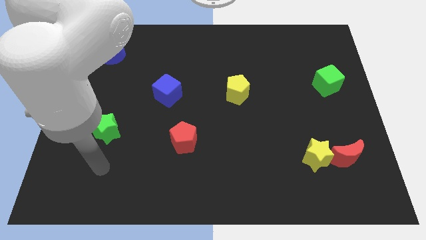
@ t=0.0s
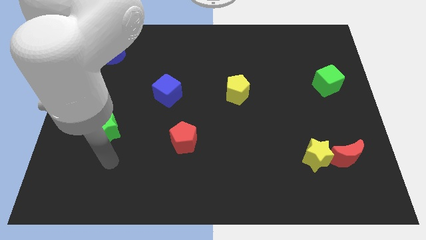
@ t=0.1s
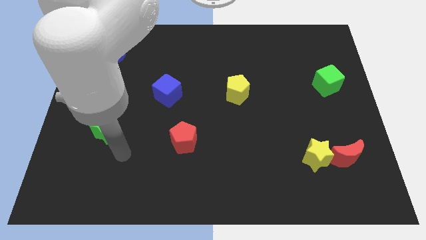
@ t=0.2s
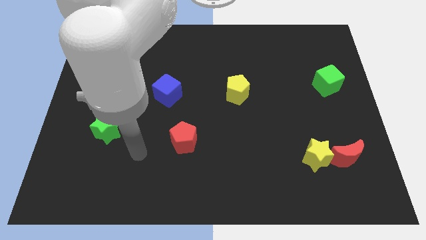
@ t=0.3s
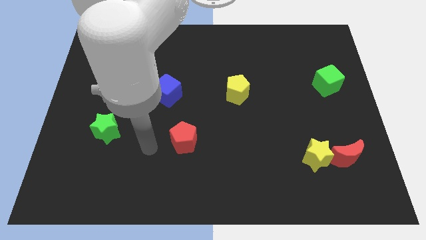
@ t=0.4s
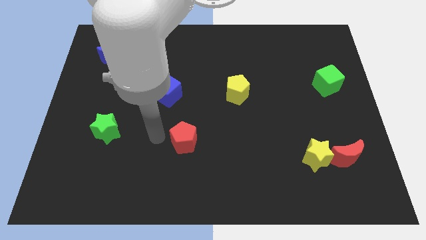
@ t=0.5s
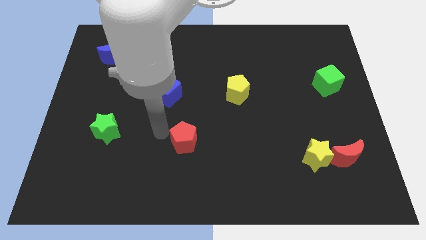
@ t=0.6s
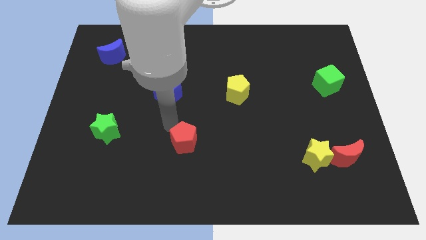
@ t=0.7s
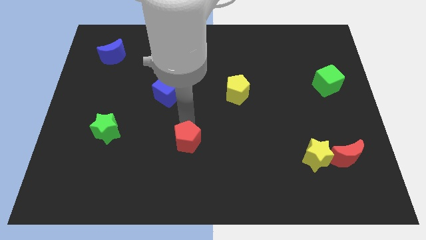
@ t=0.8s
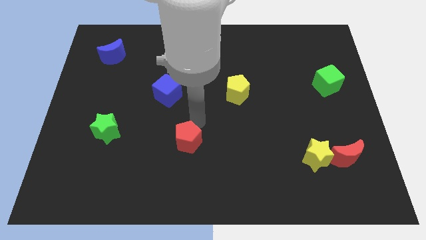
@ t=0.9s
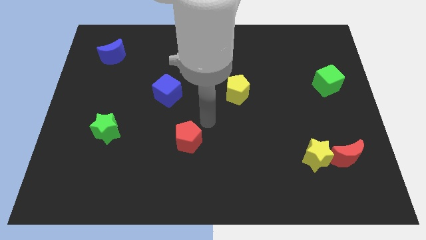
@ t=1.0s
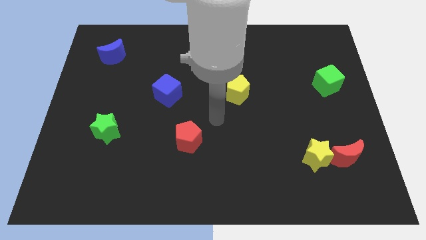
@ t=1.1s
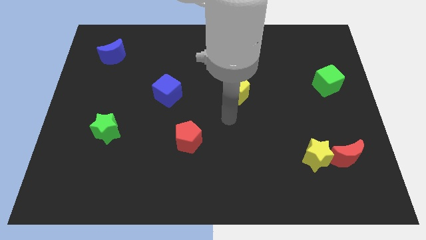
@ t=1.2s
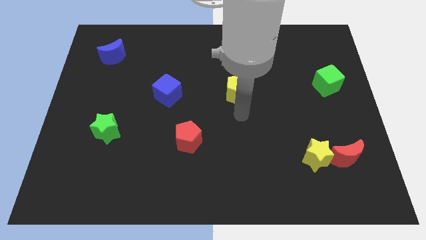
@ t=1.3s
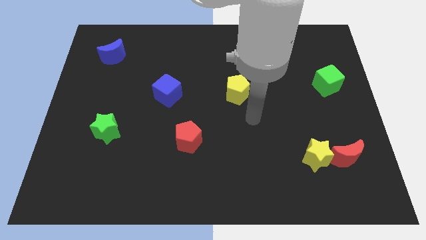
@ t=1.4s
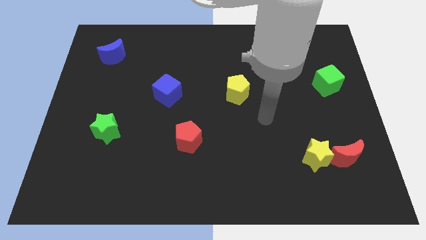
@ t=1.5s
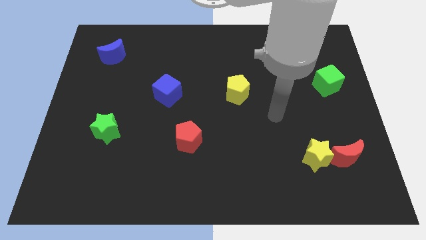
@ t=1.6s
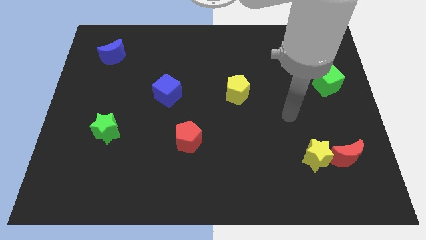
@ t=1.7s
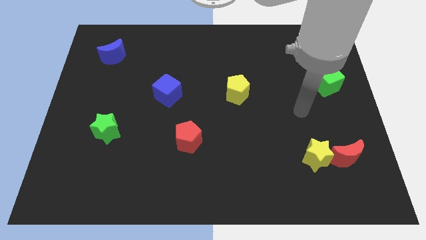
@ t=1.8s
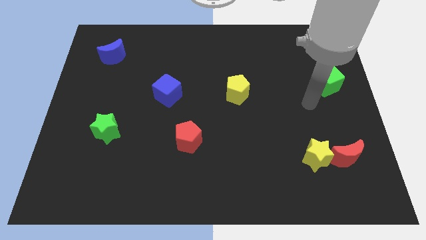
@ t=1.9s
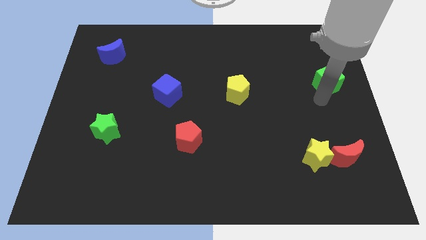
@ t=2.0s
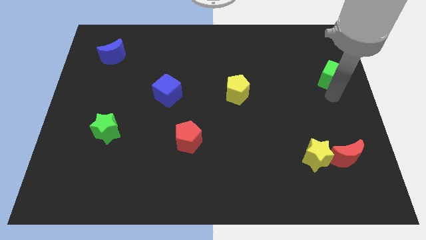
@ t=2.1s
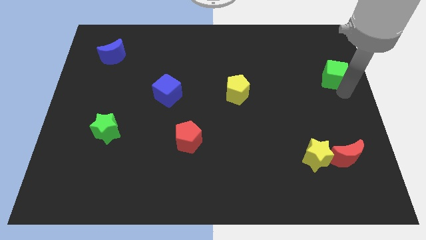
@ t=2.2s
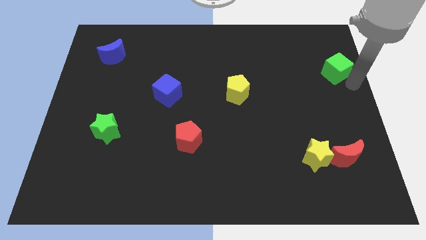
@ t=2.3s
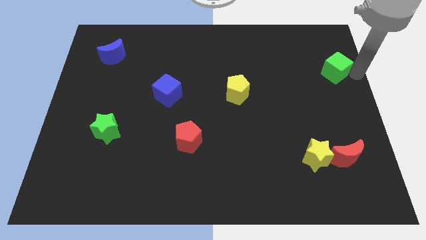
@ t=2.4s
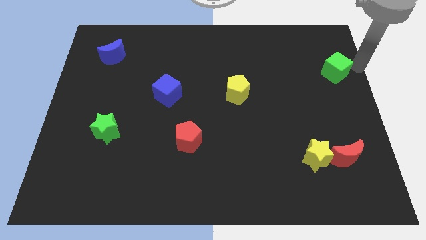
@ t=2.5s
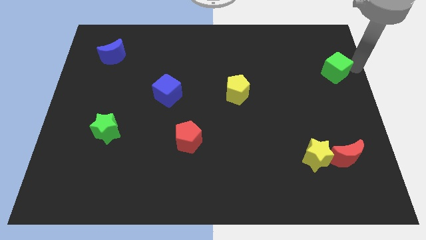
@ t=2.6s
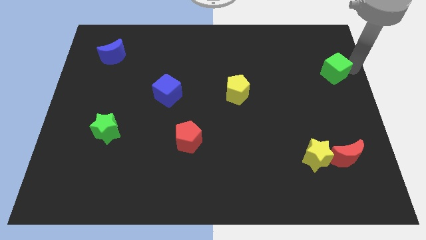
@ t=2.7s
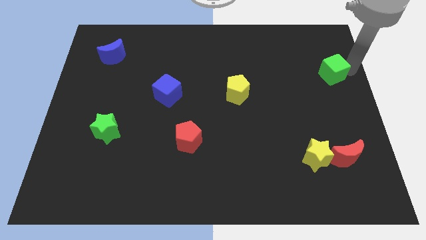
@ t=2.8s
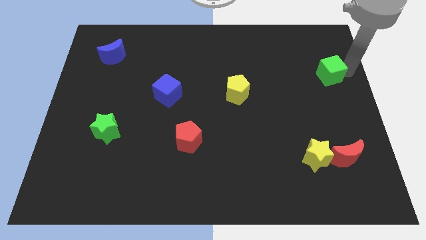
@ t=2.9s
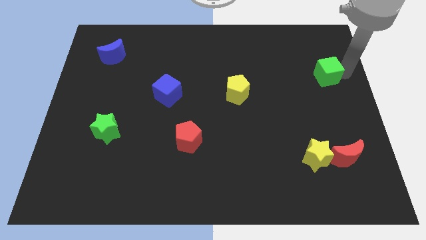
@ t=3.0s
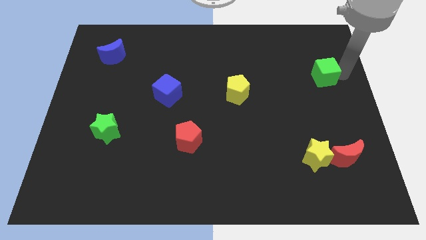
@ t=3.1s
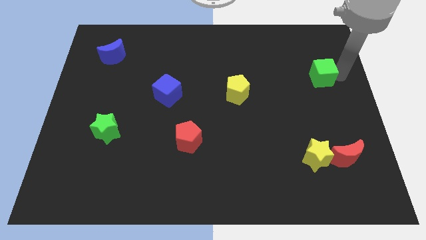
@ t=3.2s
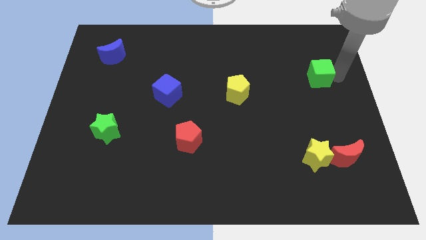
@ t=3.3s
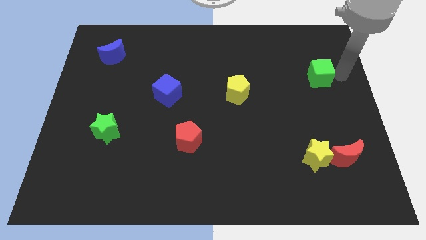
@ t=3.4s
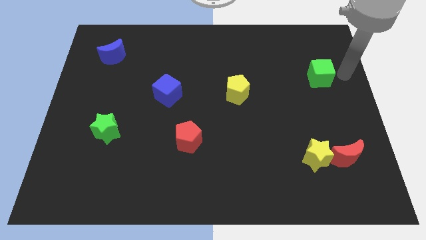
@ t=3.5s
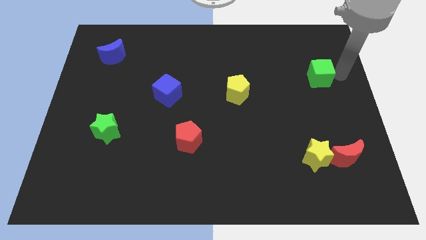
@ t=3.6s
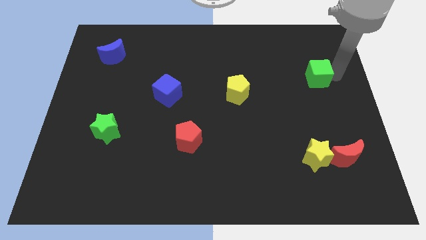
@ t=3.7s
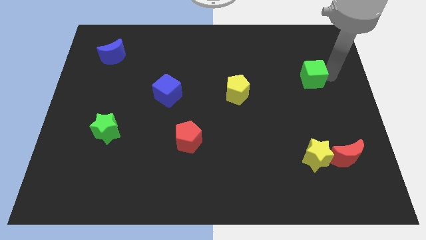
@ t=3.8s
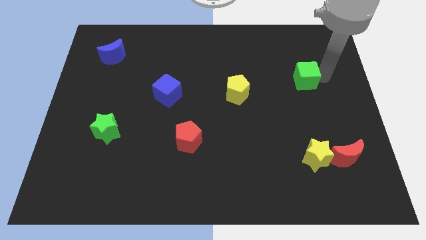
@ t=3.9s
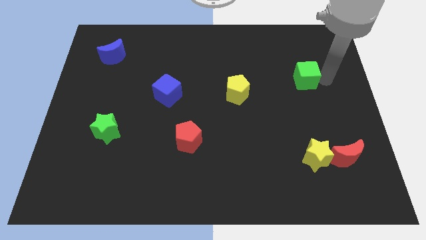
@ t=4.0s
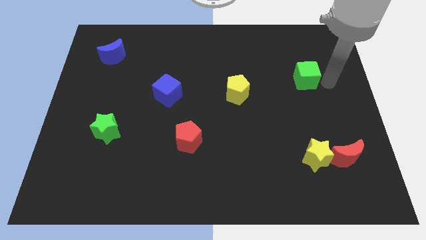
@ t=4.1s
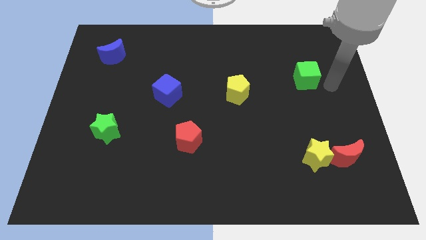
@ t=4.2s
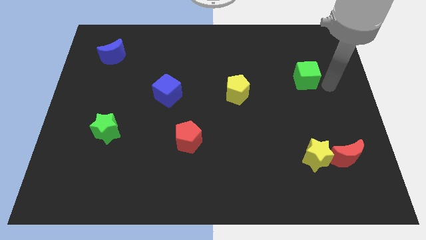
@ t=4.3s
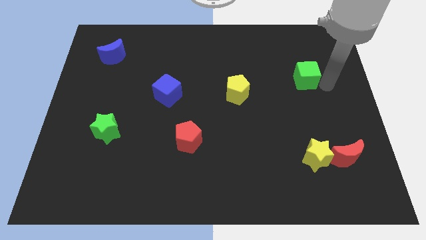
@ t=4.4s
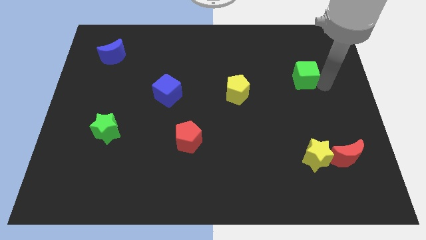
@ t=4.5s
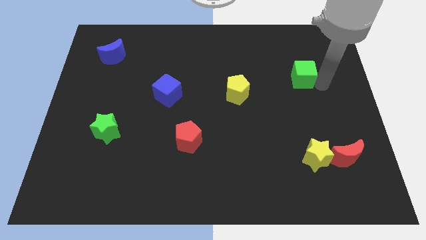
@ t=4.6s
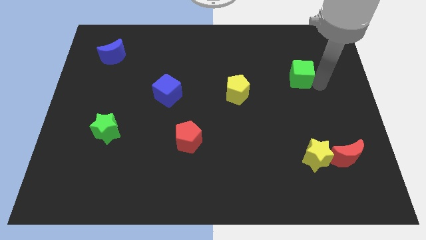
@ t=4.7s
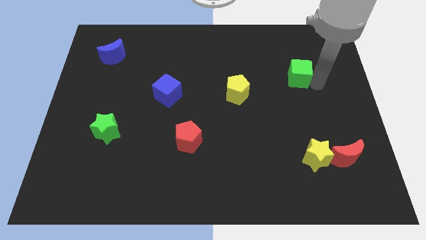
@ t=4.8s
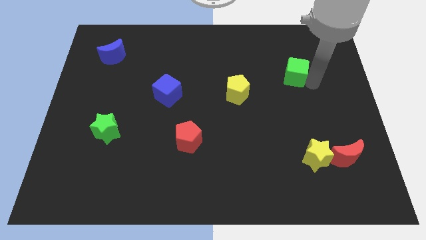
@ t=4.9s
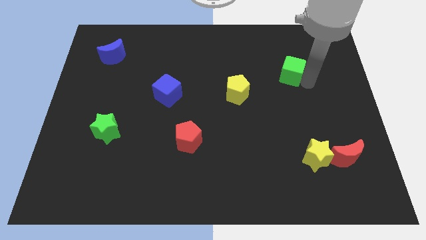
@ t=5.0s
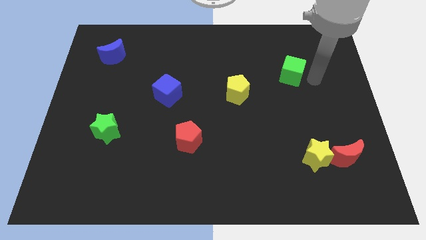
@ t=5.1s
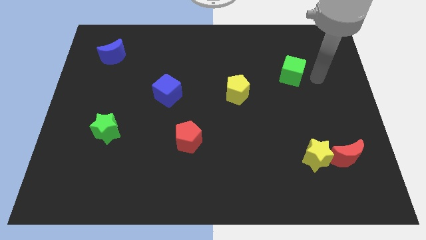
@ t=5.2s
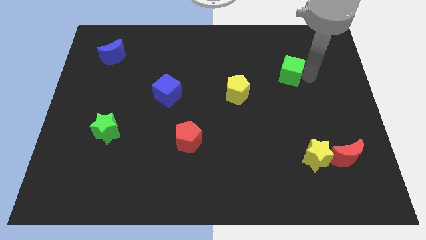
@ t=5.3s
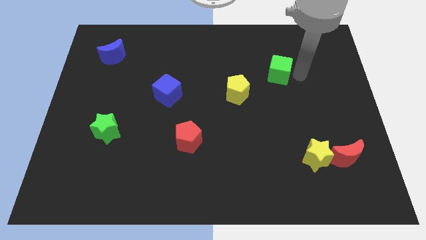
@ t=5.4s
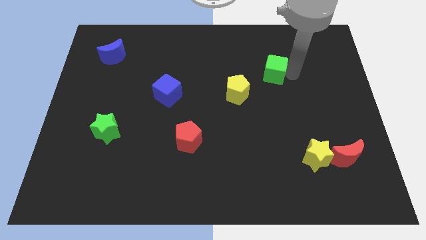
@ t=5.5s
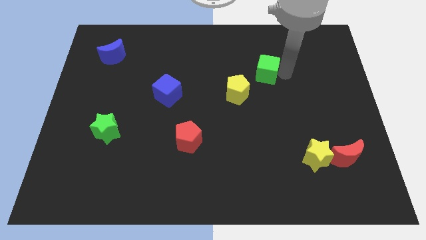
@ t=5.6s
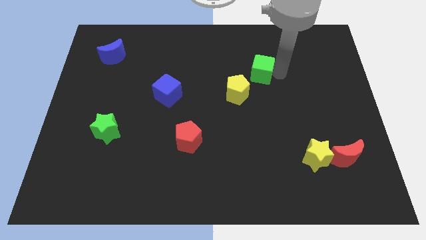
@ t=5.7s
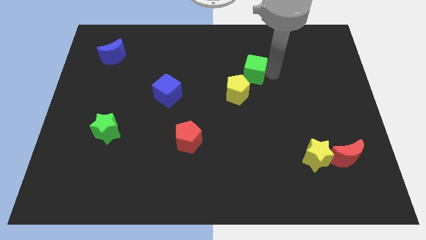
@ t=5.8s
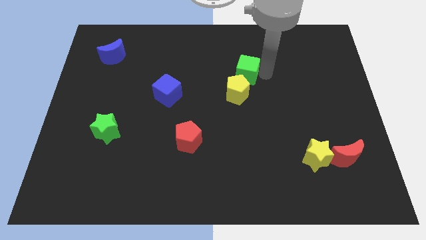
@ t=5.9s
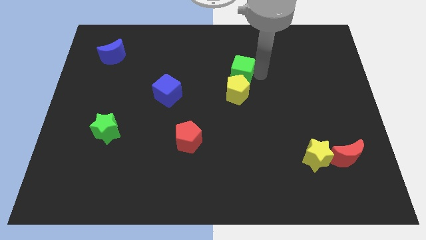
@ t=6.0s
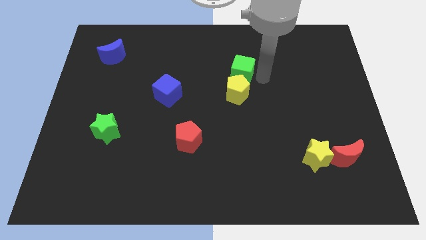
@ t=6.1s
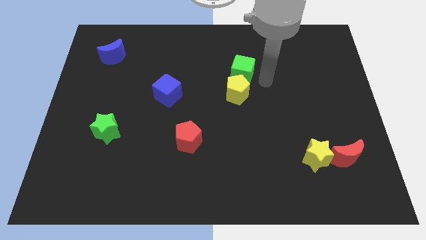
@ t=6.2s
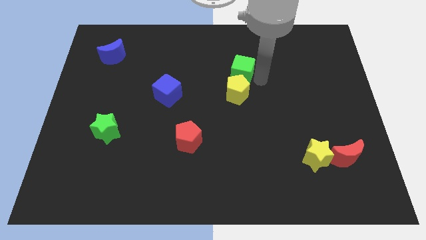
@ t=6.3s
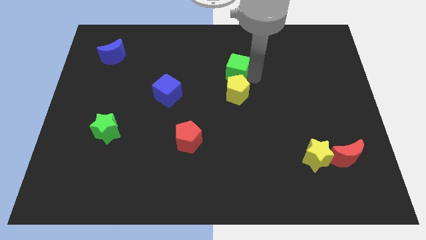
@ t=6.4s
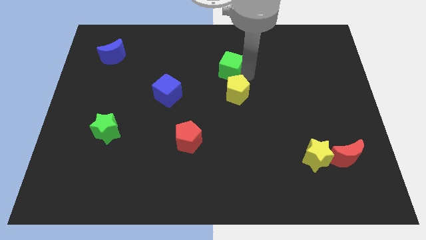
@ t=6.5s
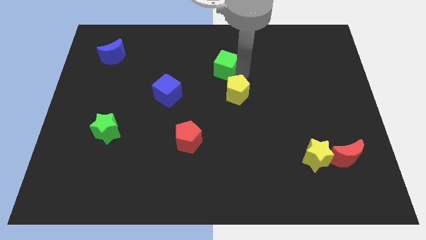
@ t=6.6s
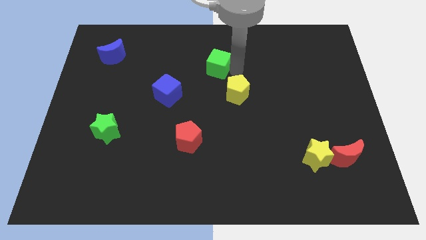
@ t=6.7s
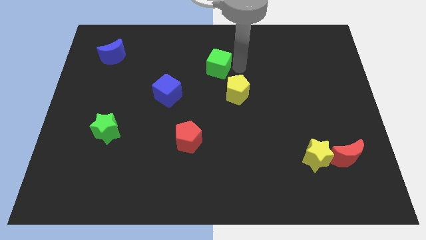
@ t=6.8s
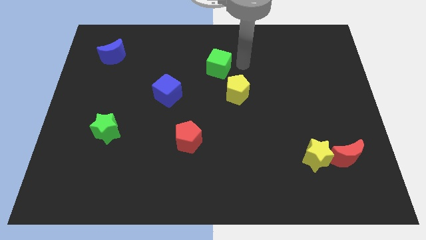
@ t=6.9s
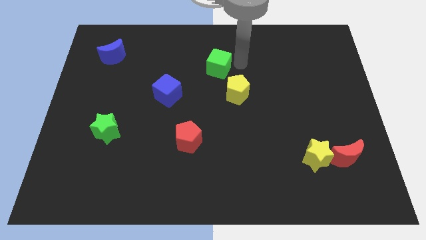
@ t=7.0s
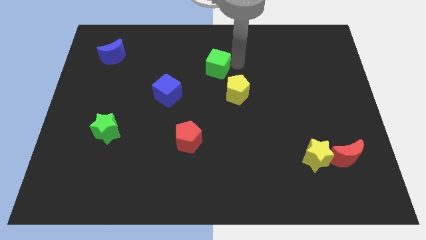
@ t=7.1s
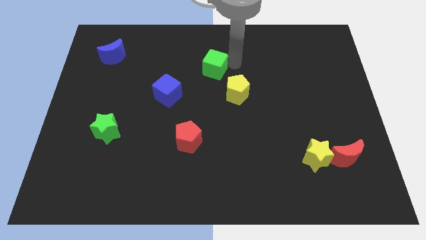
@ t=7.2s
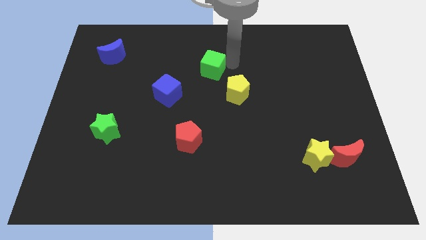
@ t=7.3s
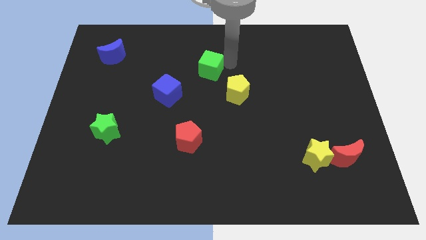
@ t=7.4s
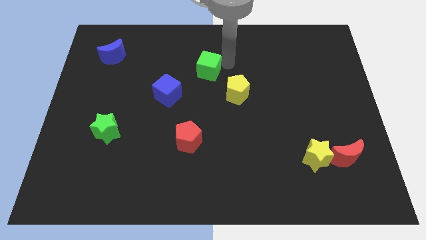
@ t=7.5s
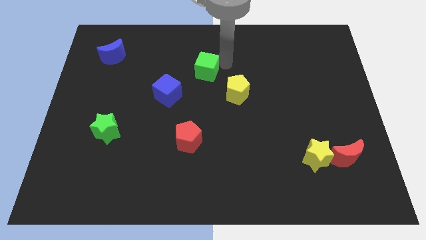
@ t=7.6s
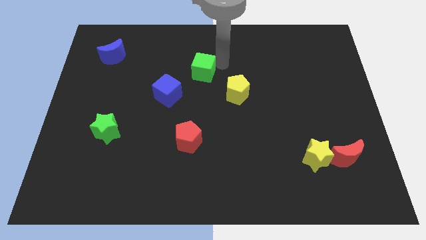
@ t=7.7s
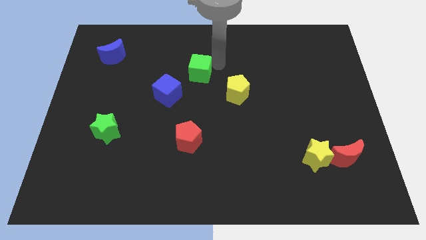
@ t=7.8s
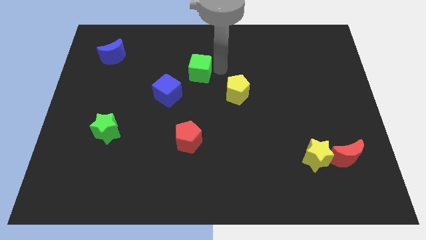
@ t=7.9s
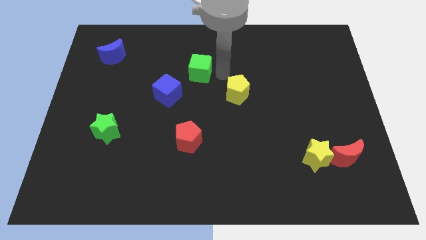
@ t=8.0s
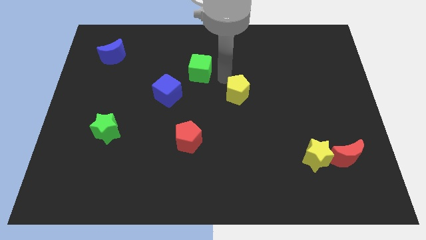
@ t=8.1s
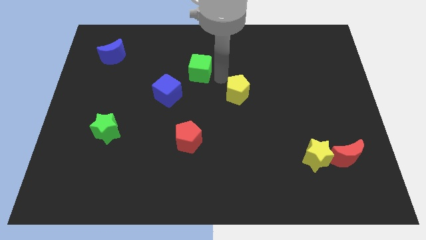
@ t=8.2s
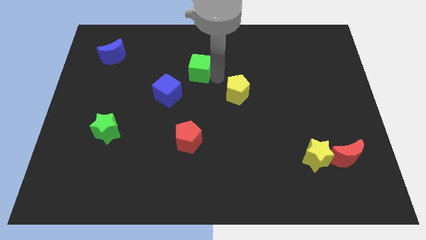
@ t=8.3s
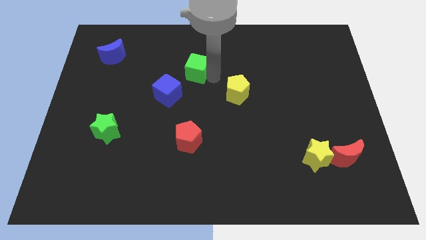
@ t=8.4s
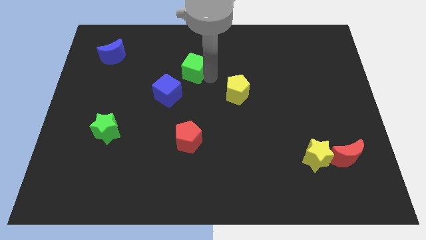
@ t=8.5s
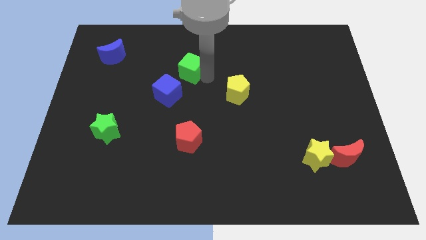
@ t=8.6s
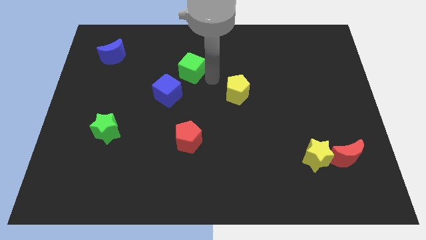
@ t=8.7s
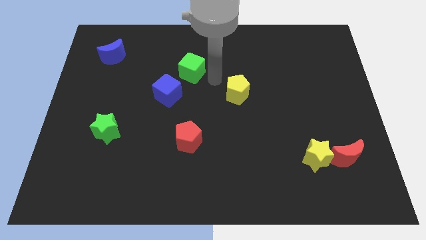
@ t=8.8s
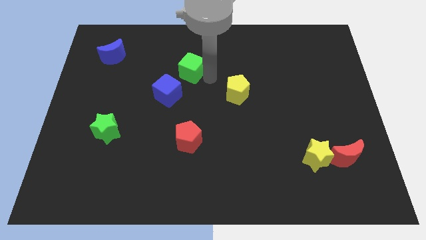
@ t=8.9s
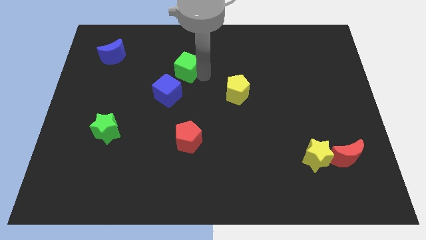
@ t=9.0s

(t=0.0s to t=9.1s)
slide the green cube to the top side of the blue cube
